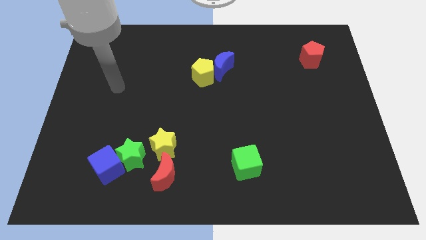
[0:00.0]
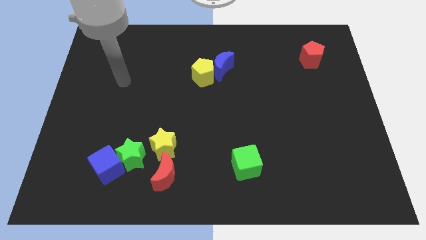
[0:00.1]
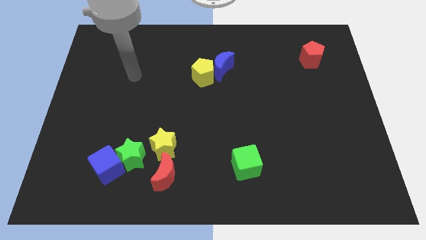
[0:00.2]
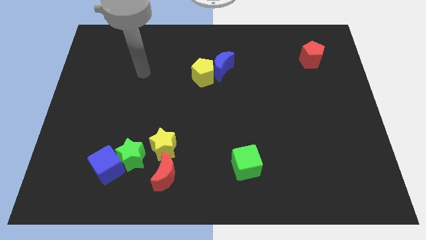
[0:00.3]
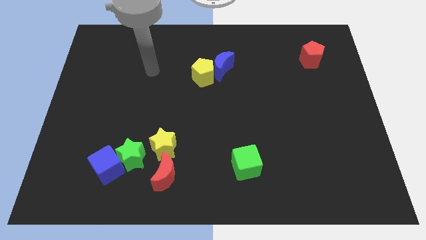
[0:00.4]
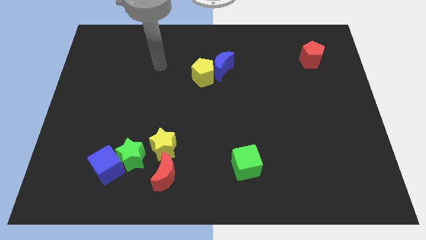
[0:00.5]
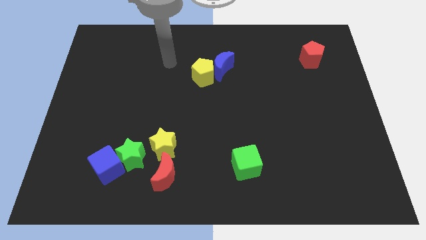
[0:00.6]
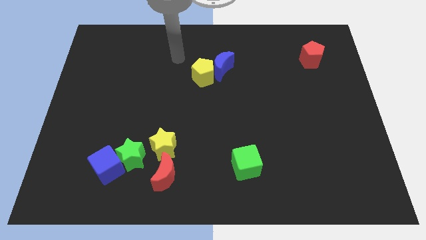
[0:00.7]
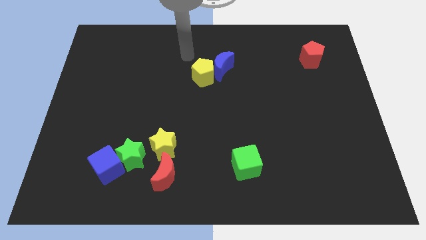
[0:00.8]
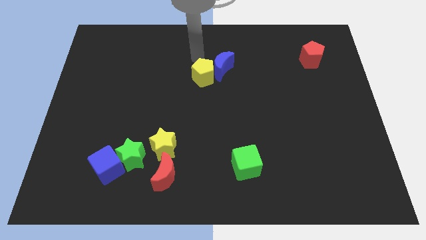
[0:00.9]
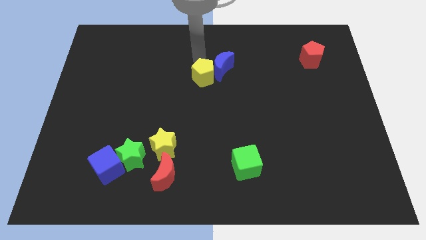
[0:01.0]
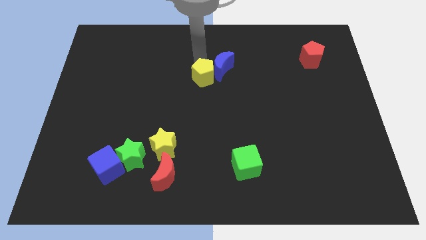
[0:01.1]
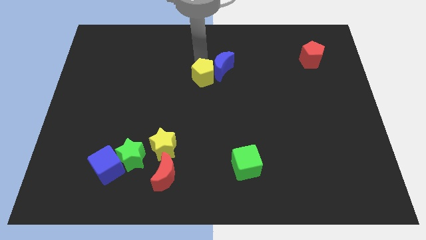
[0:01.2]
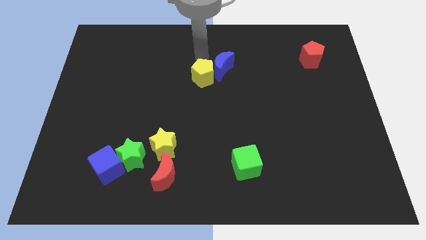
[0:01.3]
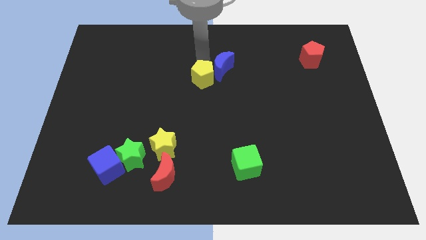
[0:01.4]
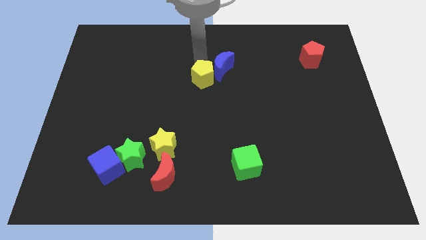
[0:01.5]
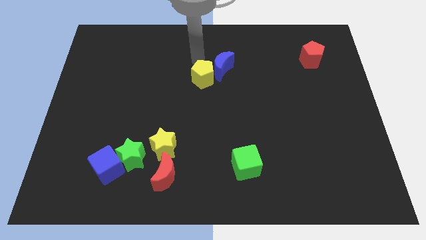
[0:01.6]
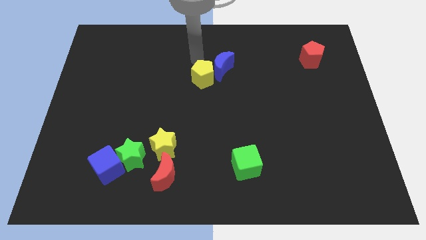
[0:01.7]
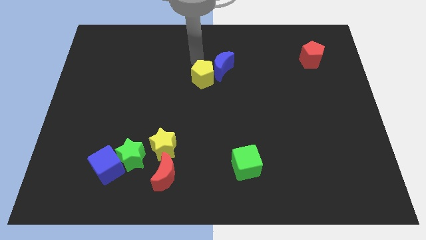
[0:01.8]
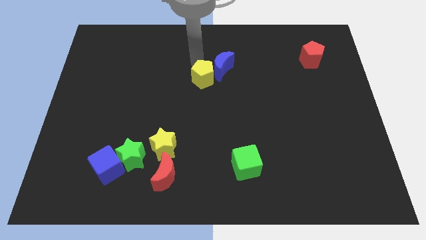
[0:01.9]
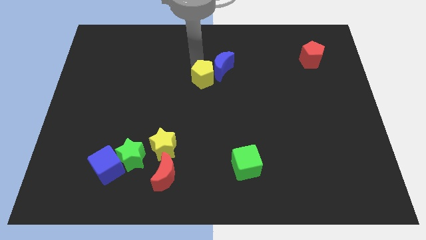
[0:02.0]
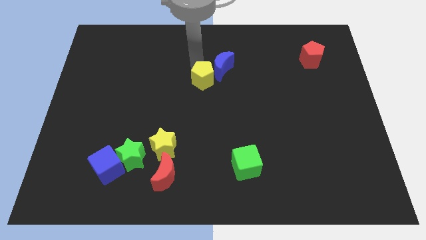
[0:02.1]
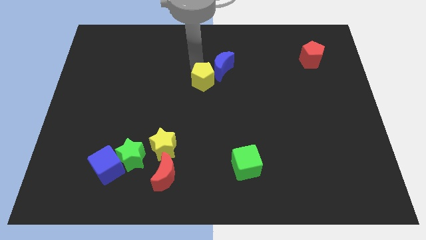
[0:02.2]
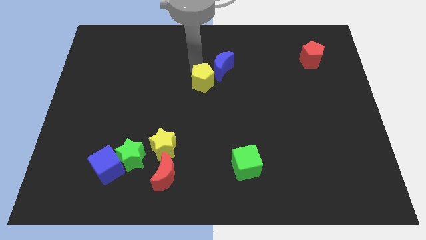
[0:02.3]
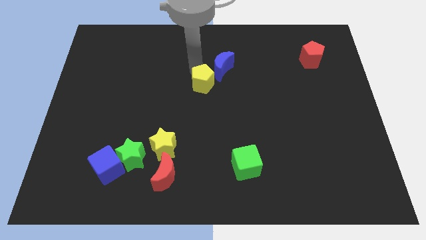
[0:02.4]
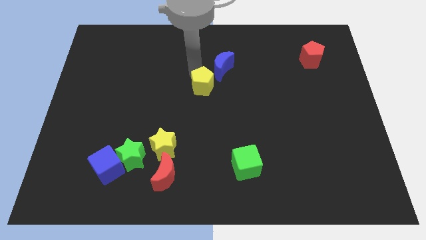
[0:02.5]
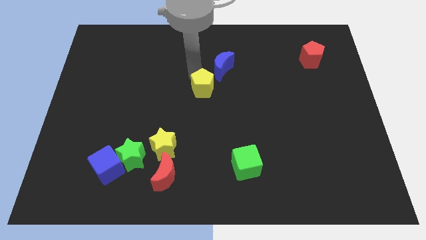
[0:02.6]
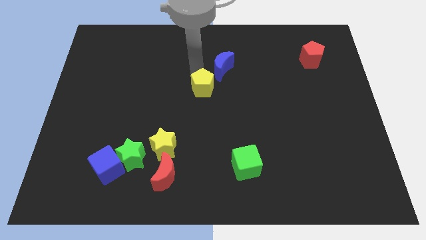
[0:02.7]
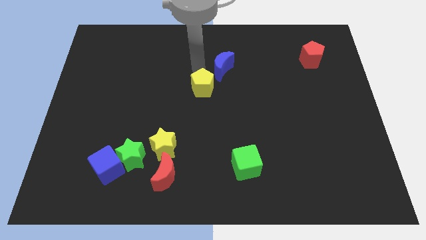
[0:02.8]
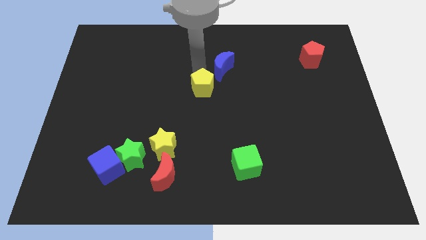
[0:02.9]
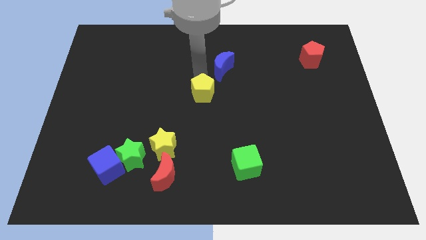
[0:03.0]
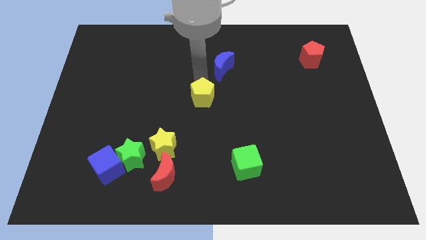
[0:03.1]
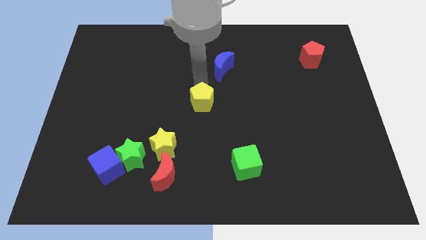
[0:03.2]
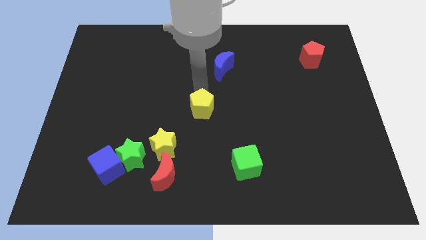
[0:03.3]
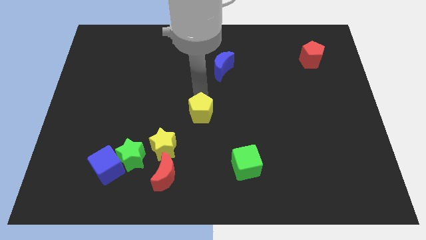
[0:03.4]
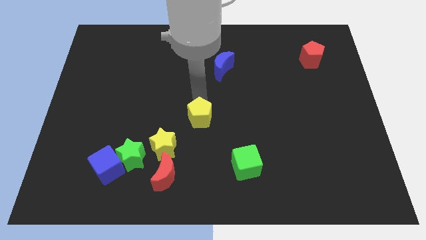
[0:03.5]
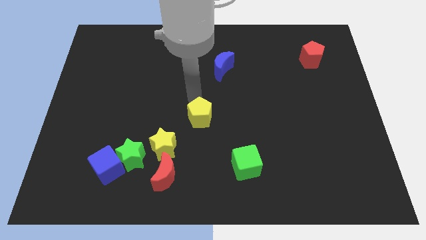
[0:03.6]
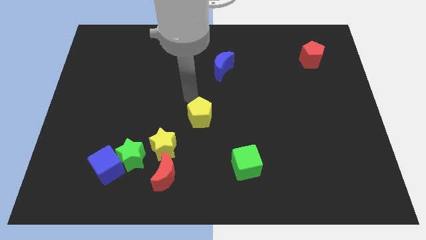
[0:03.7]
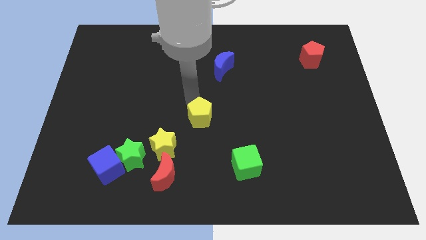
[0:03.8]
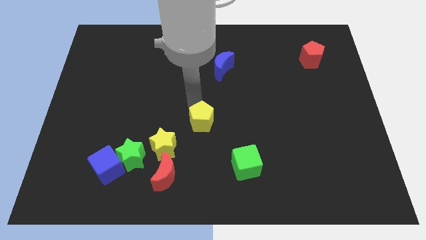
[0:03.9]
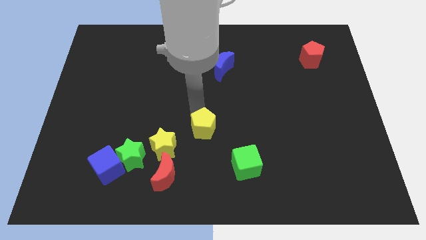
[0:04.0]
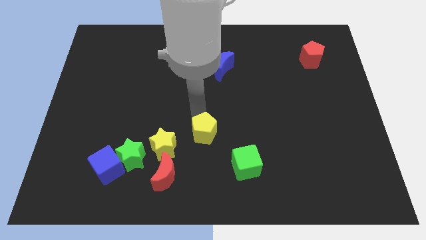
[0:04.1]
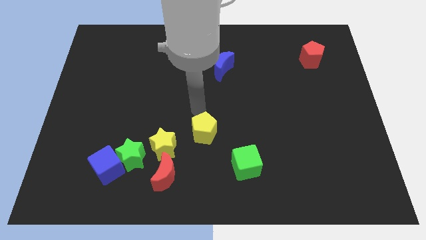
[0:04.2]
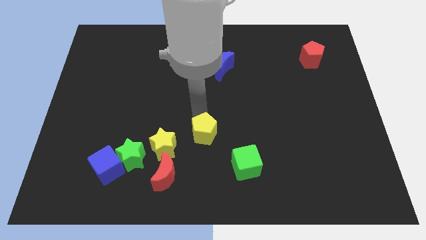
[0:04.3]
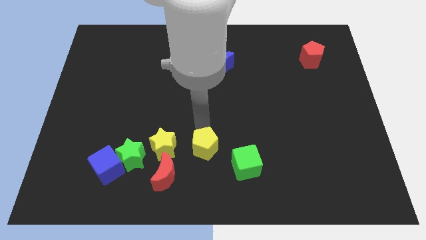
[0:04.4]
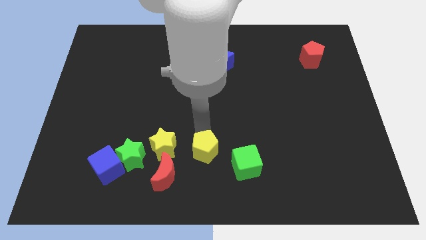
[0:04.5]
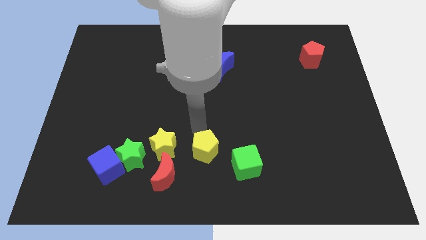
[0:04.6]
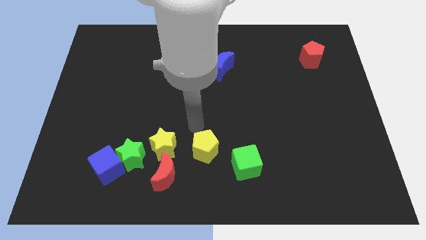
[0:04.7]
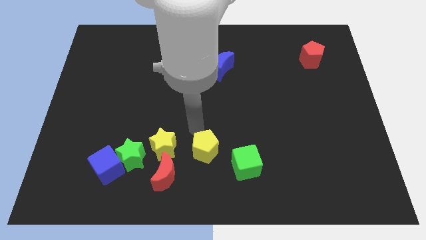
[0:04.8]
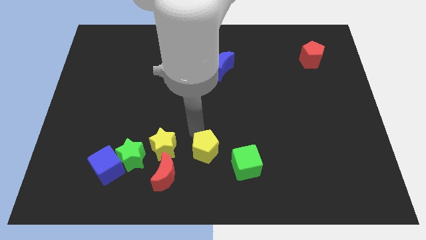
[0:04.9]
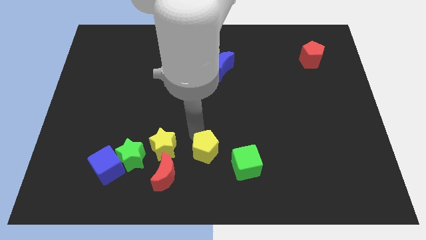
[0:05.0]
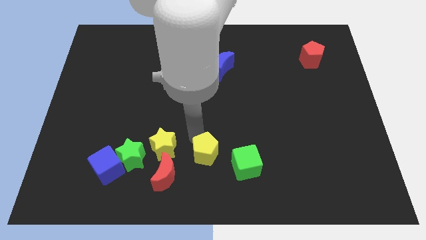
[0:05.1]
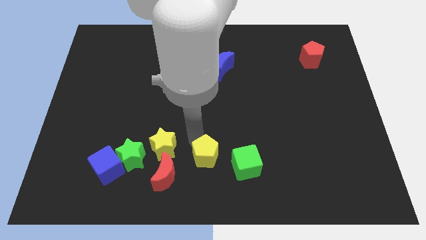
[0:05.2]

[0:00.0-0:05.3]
push the yellow pentagon to the bottom side

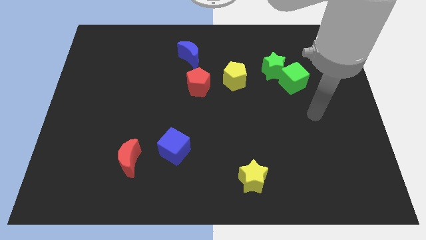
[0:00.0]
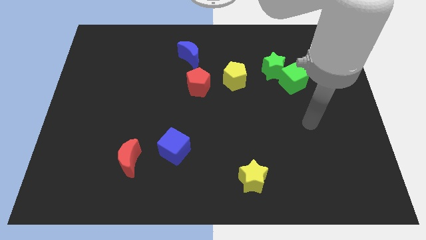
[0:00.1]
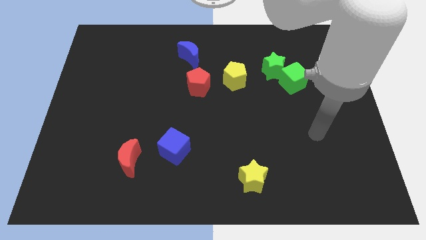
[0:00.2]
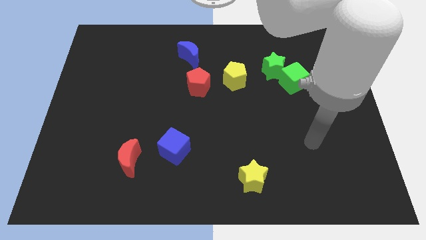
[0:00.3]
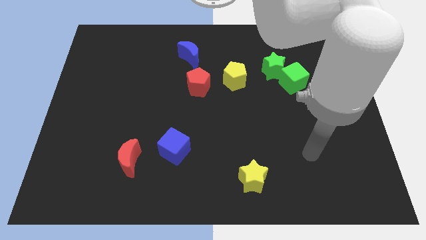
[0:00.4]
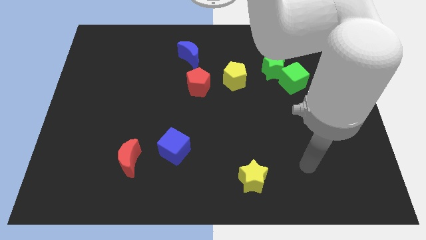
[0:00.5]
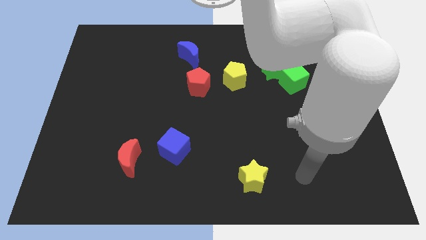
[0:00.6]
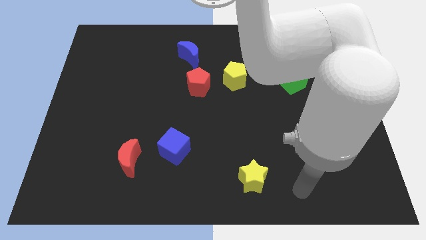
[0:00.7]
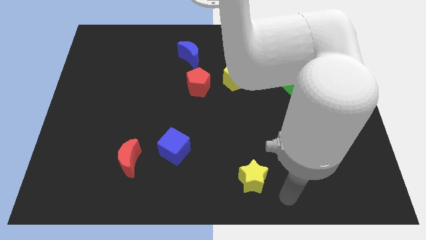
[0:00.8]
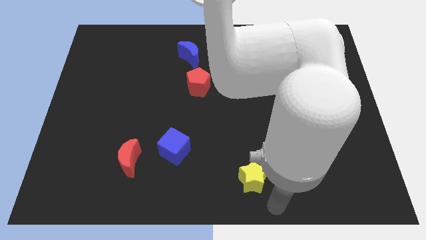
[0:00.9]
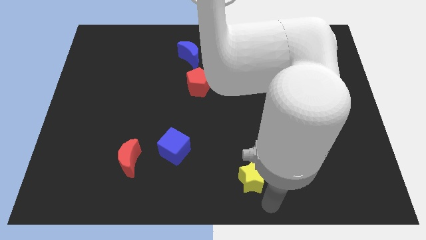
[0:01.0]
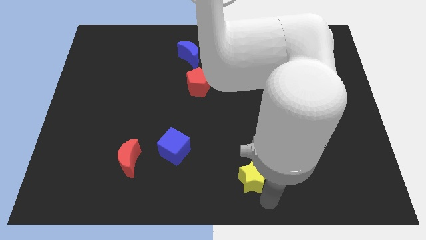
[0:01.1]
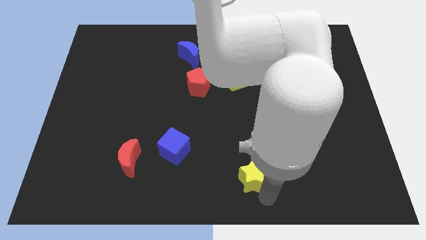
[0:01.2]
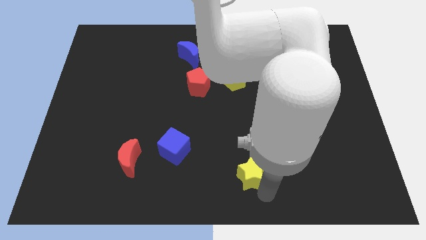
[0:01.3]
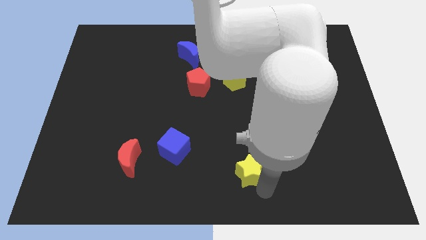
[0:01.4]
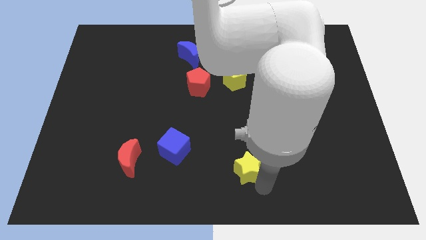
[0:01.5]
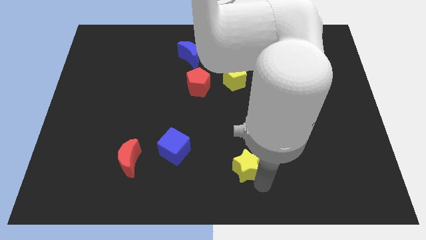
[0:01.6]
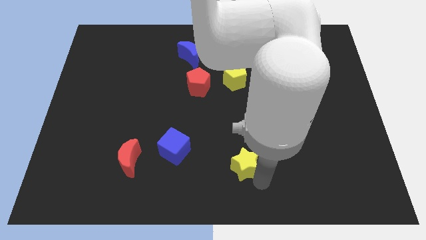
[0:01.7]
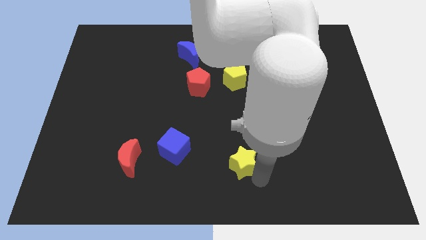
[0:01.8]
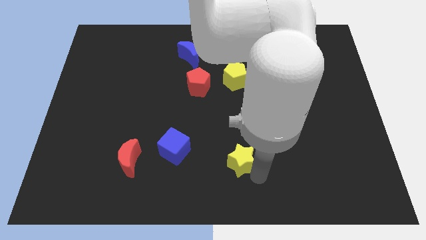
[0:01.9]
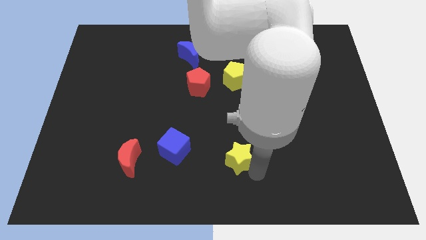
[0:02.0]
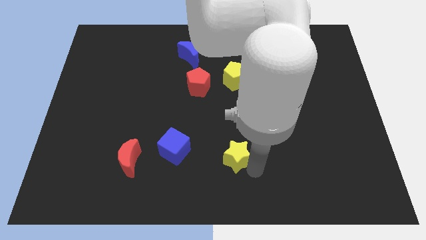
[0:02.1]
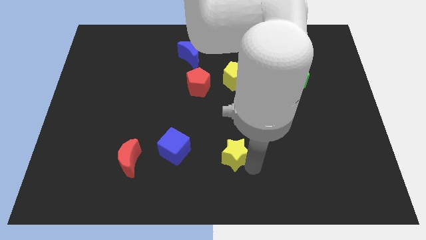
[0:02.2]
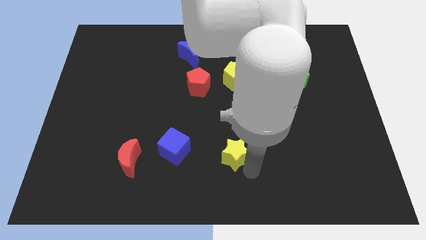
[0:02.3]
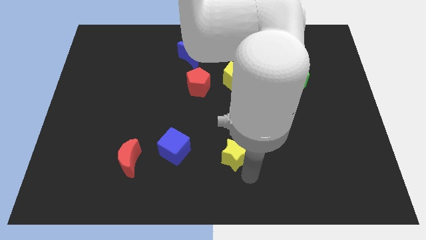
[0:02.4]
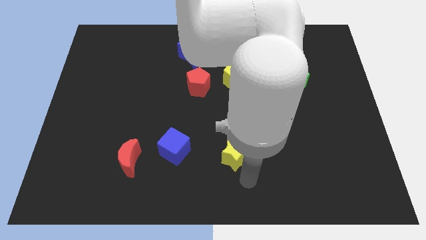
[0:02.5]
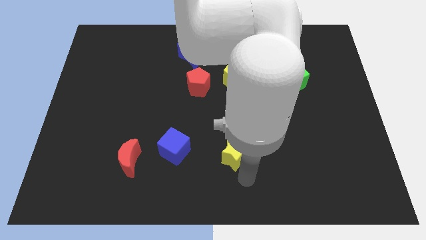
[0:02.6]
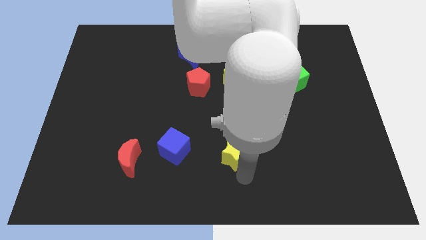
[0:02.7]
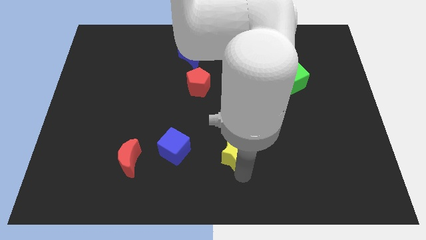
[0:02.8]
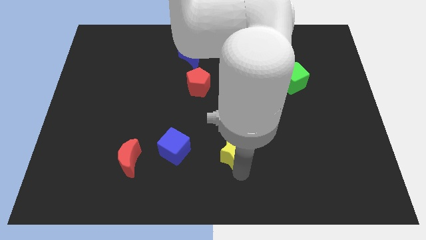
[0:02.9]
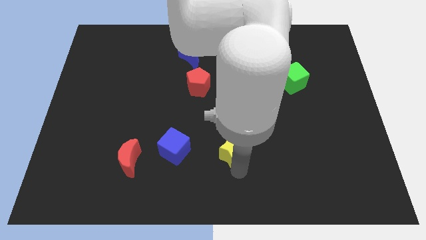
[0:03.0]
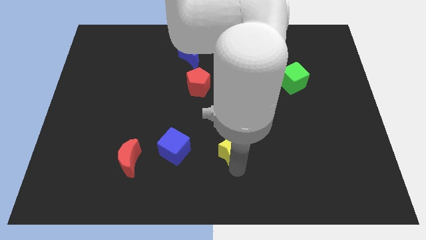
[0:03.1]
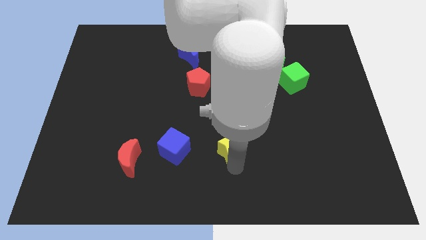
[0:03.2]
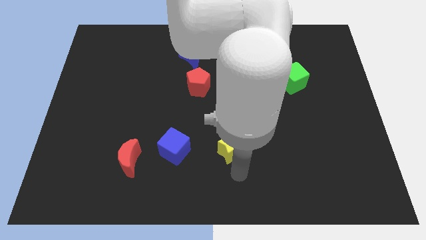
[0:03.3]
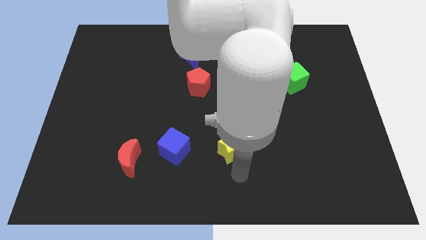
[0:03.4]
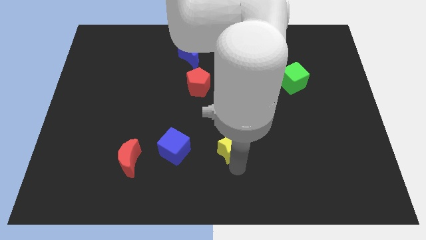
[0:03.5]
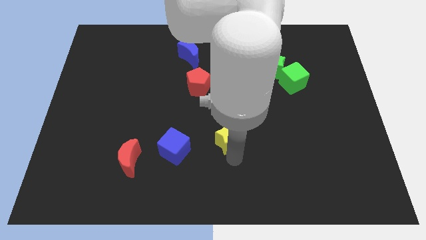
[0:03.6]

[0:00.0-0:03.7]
move the yellow star to the middle
